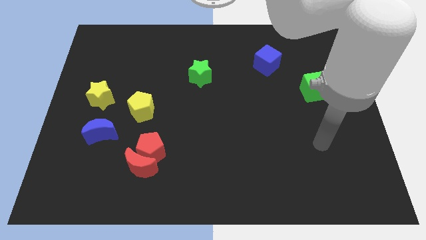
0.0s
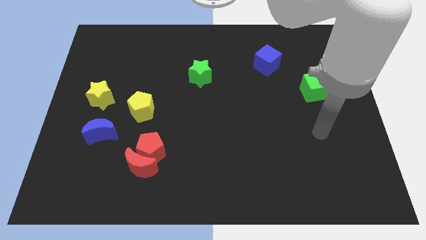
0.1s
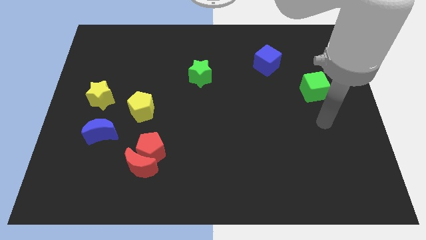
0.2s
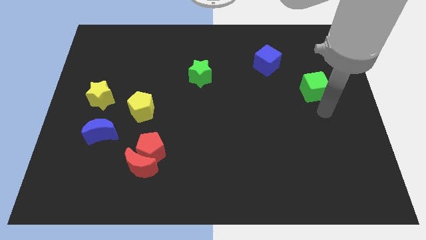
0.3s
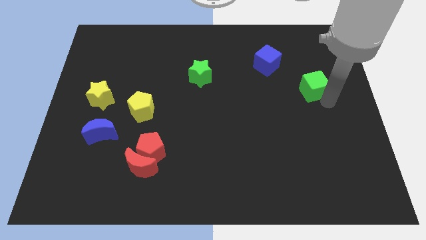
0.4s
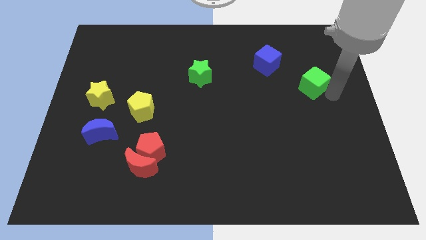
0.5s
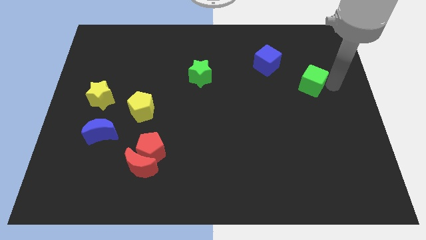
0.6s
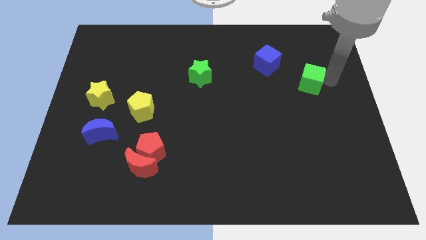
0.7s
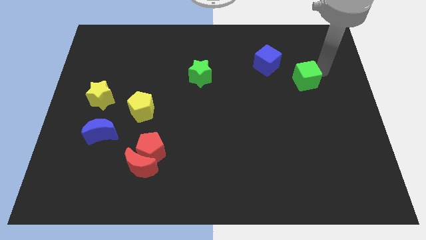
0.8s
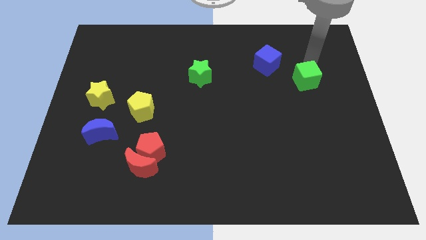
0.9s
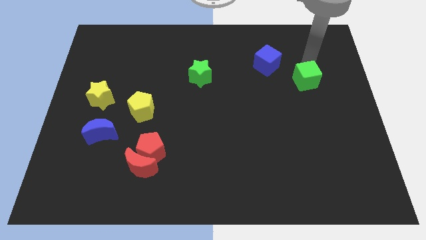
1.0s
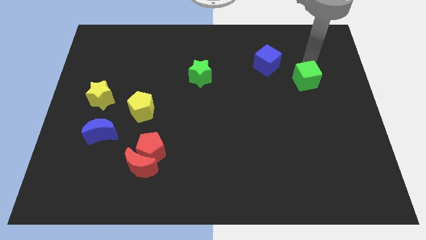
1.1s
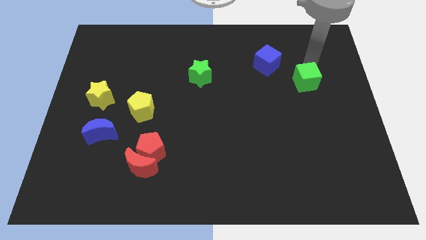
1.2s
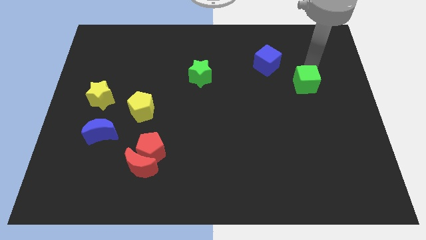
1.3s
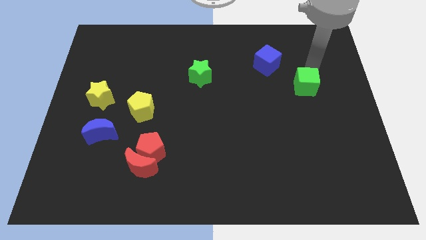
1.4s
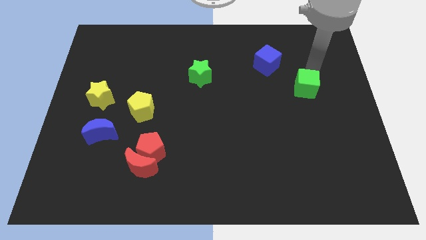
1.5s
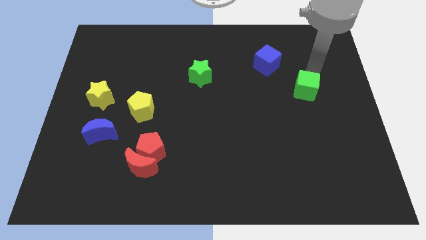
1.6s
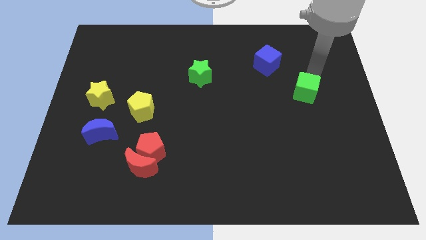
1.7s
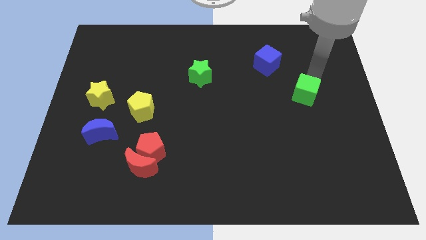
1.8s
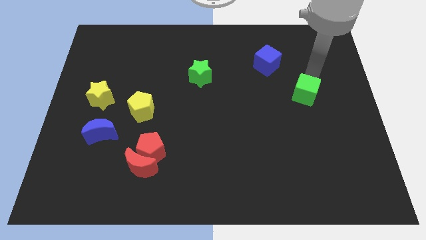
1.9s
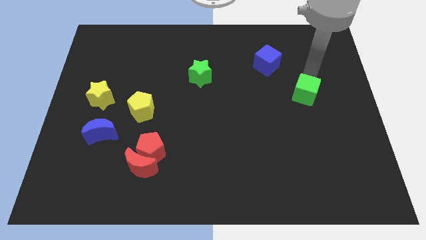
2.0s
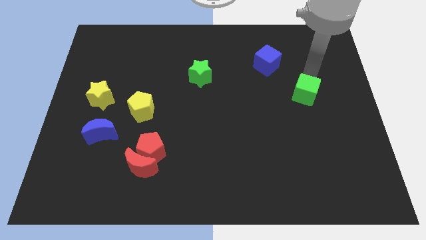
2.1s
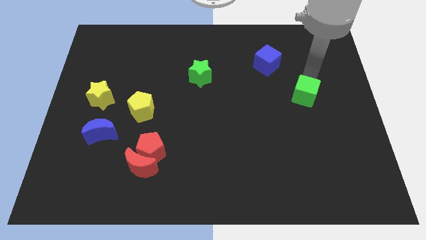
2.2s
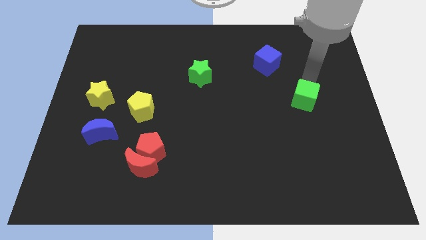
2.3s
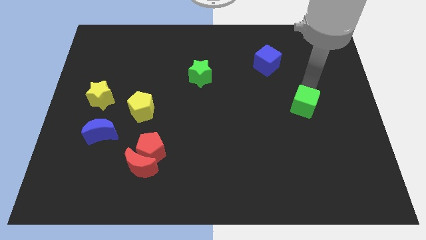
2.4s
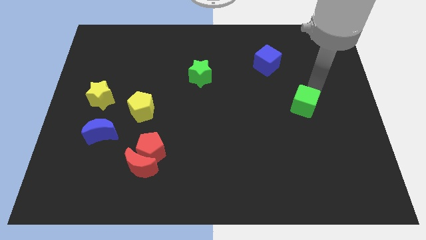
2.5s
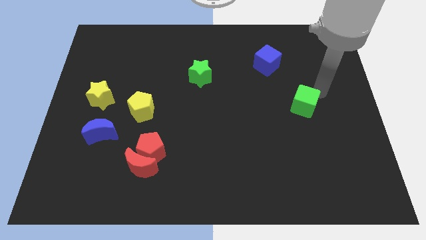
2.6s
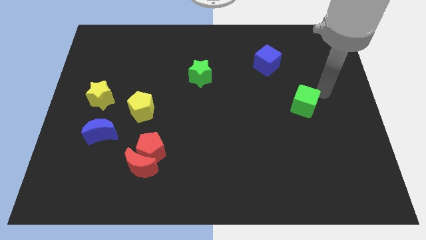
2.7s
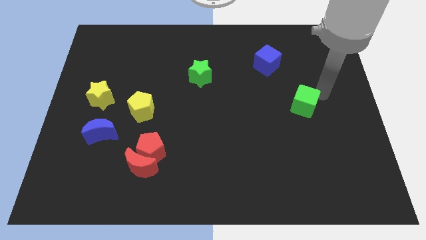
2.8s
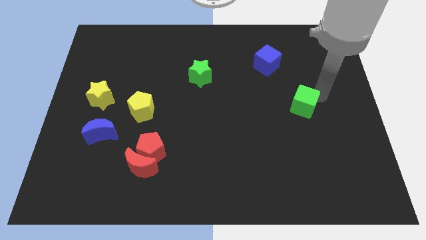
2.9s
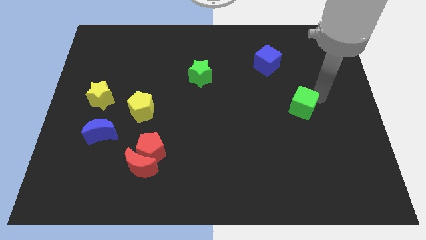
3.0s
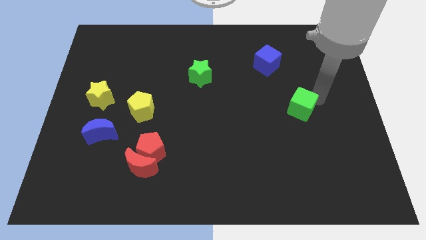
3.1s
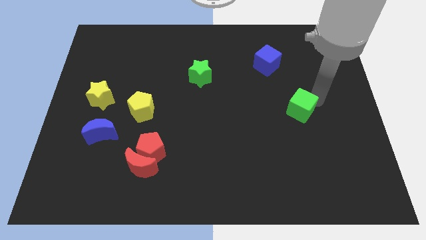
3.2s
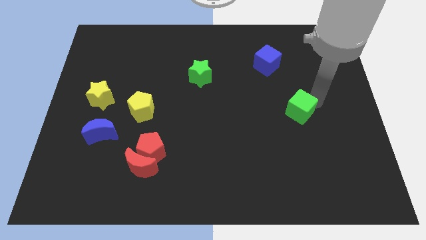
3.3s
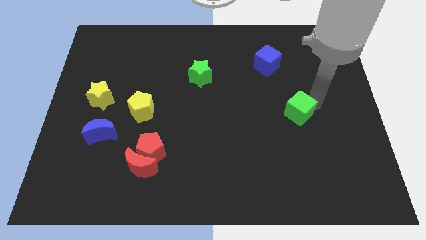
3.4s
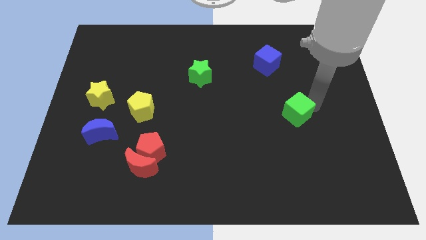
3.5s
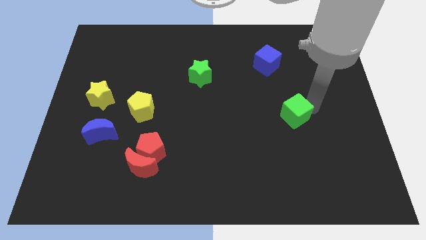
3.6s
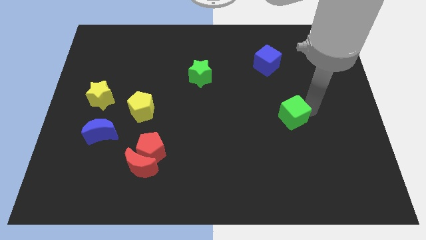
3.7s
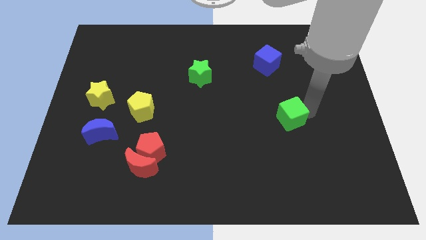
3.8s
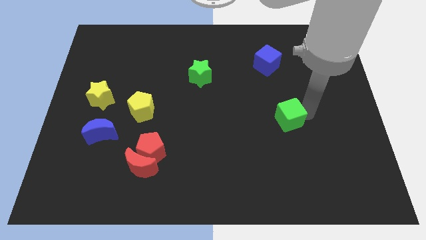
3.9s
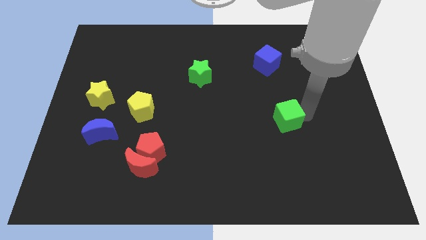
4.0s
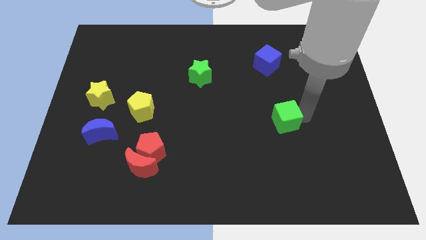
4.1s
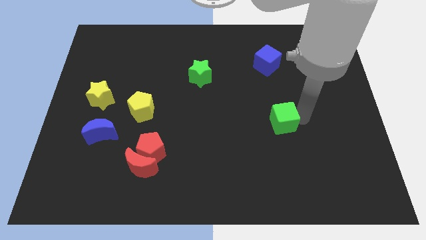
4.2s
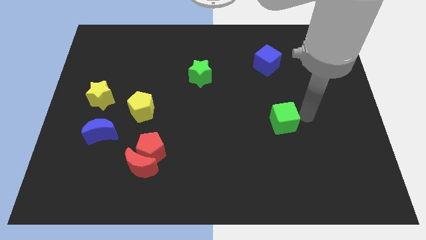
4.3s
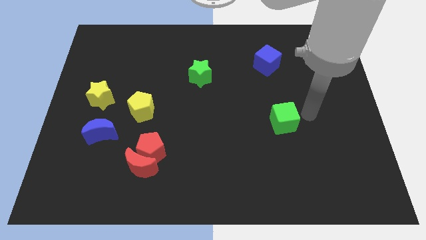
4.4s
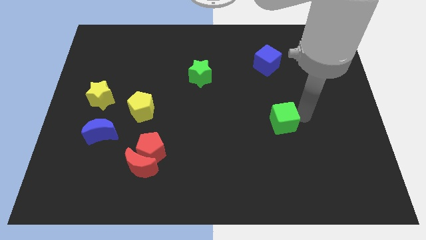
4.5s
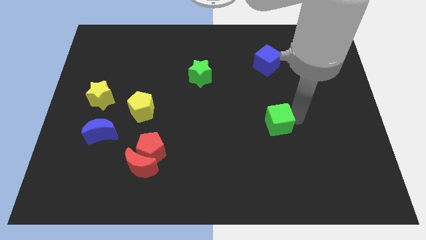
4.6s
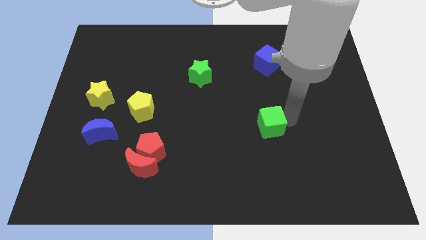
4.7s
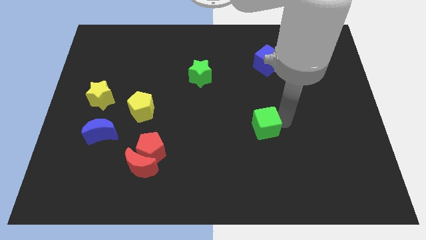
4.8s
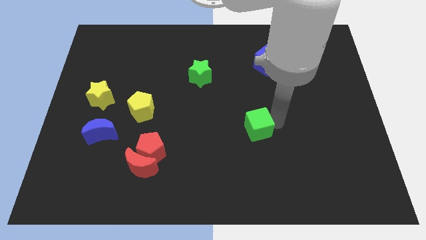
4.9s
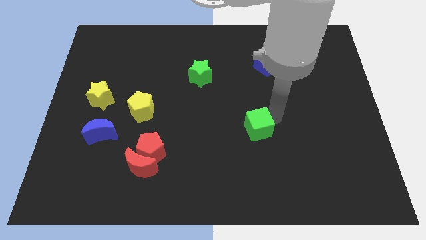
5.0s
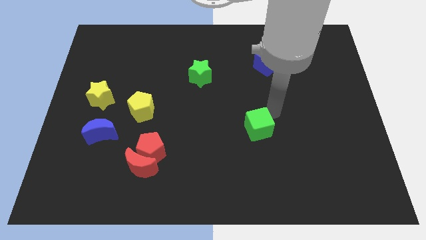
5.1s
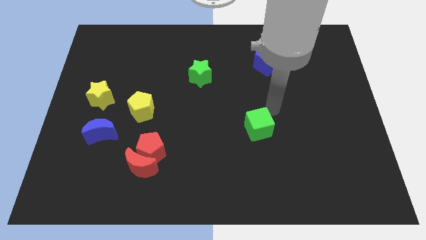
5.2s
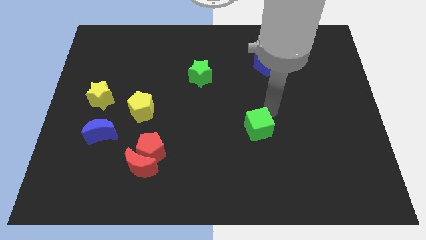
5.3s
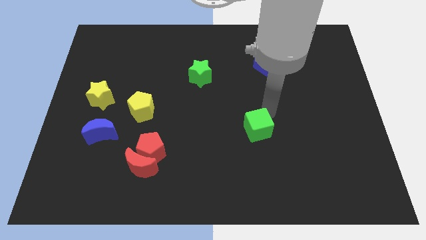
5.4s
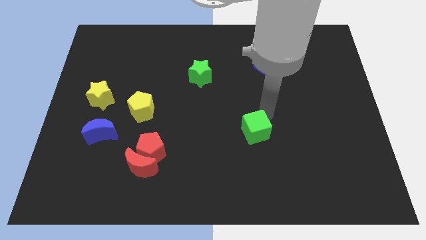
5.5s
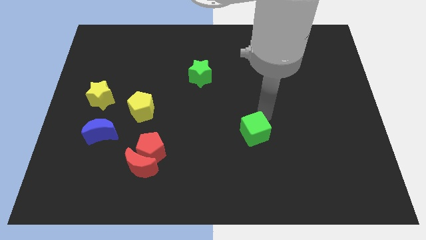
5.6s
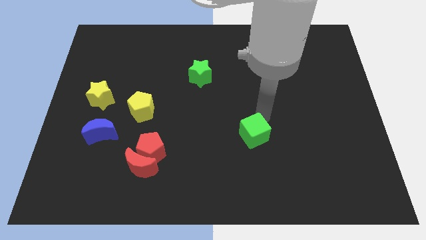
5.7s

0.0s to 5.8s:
push the green cube diagonally downwards and to the left

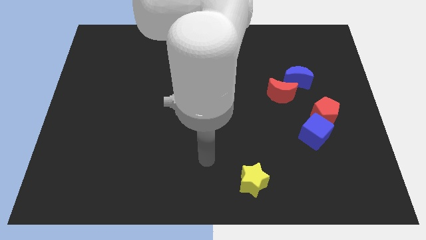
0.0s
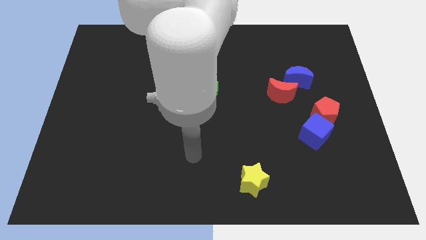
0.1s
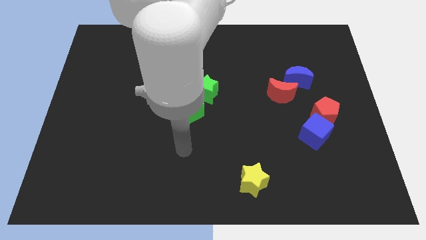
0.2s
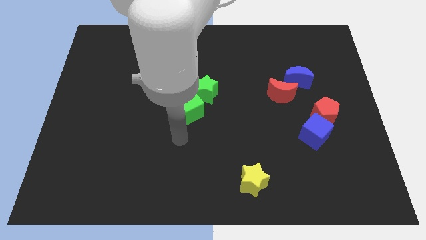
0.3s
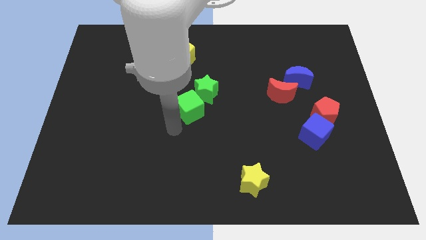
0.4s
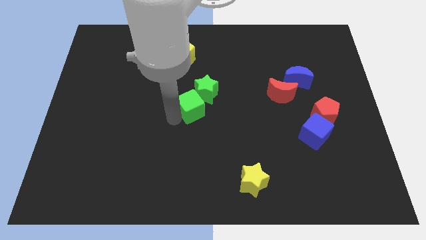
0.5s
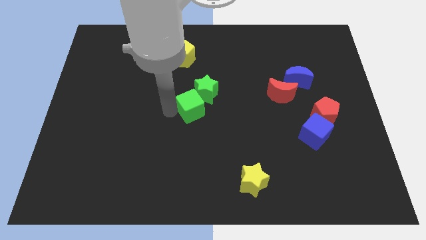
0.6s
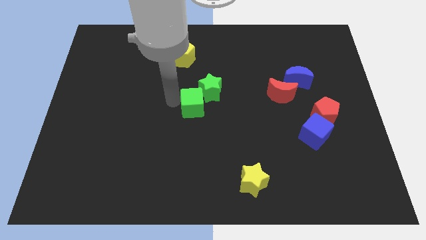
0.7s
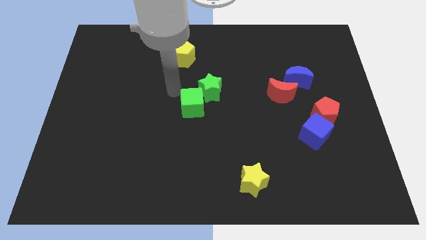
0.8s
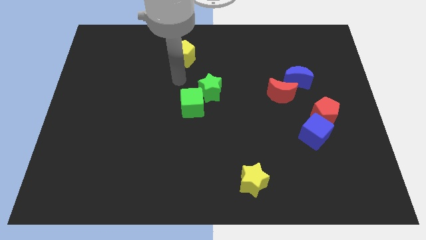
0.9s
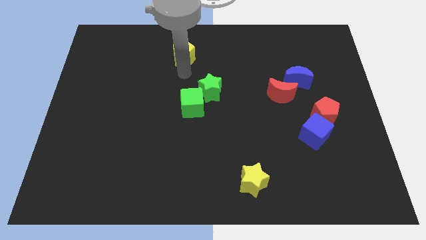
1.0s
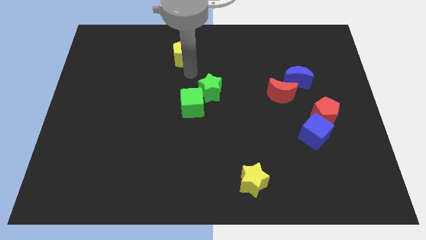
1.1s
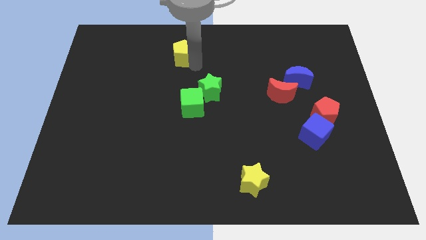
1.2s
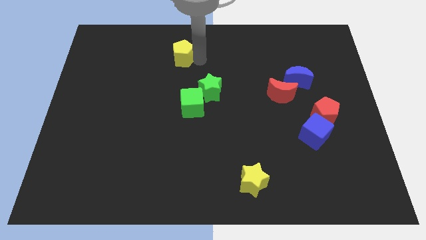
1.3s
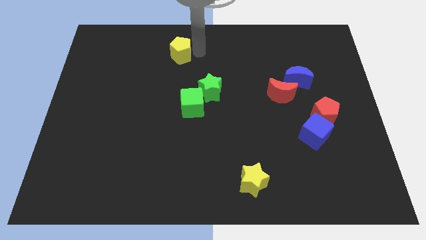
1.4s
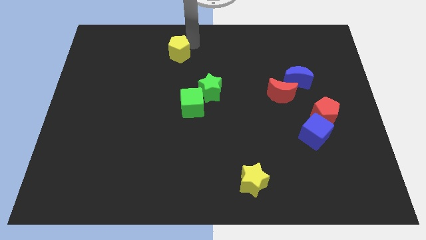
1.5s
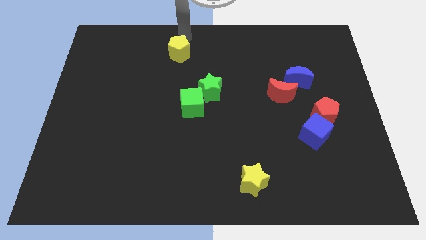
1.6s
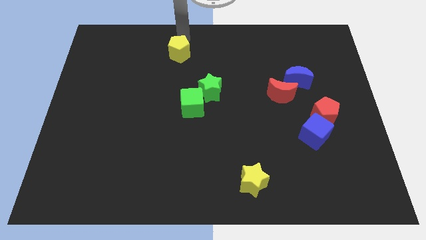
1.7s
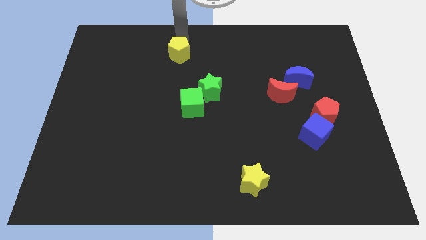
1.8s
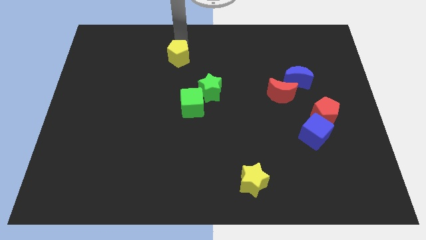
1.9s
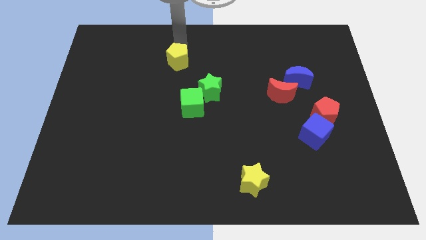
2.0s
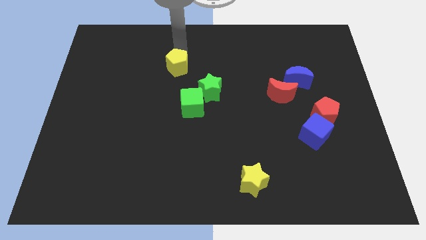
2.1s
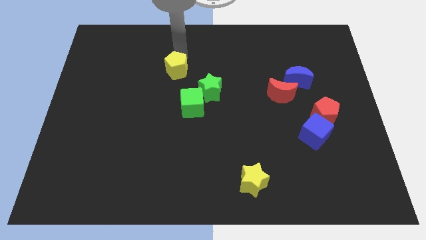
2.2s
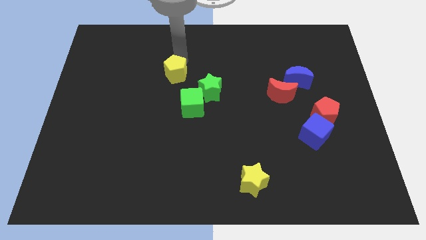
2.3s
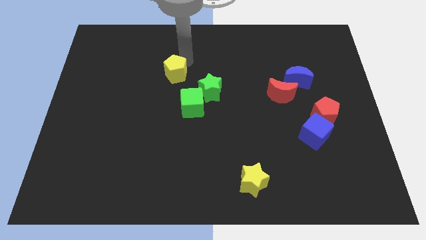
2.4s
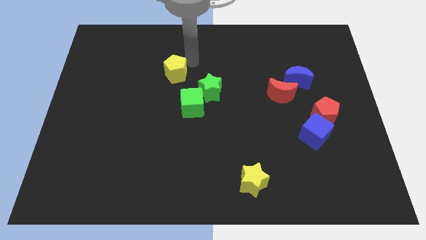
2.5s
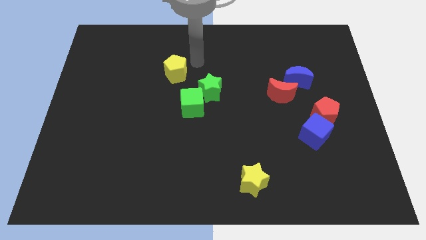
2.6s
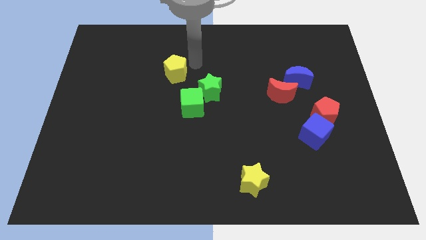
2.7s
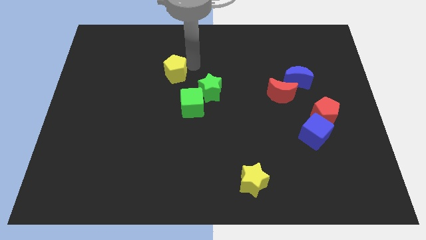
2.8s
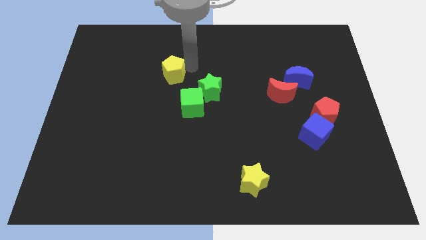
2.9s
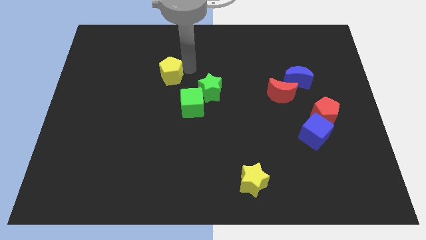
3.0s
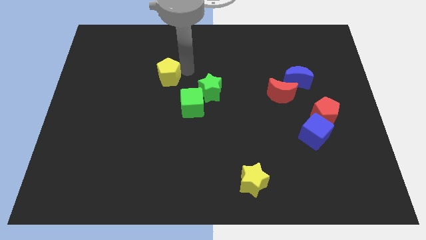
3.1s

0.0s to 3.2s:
push the yellow pentagon down and left a little bit
